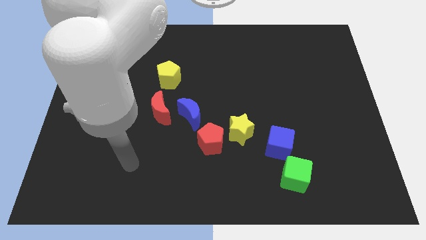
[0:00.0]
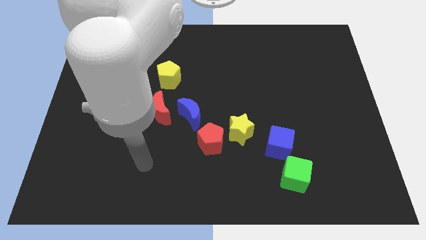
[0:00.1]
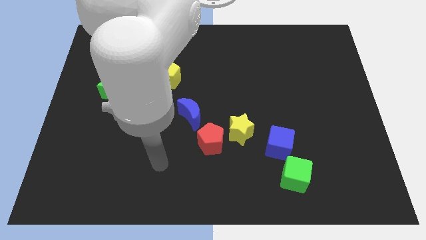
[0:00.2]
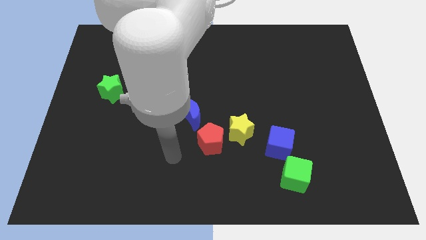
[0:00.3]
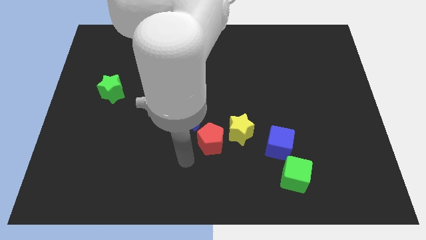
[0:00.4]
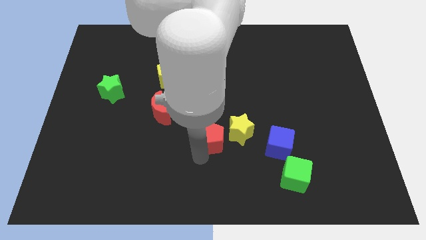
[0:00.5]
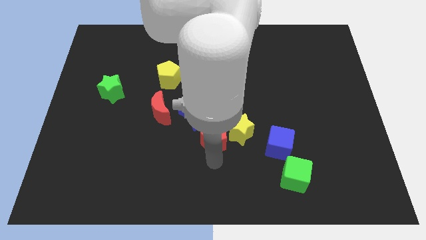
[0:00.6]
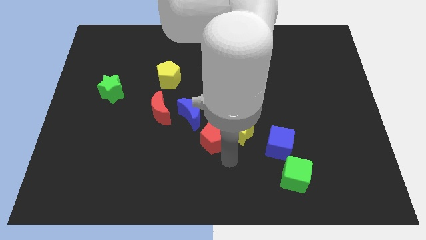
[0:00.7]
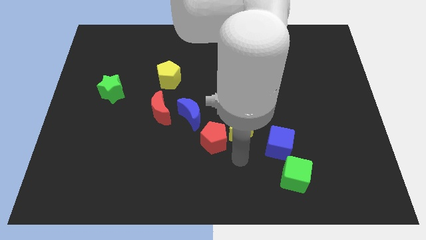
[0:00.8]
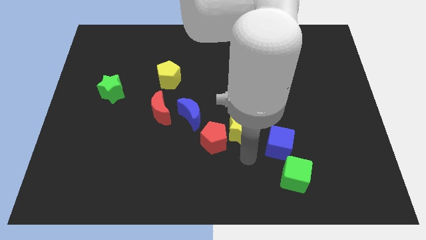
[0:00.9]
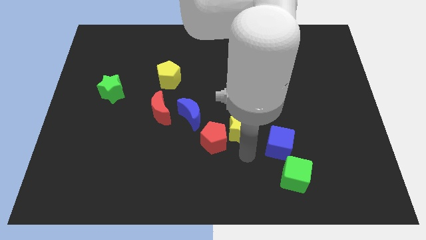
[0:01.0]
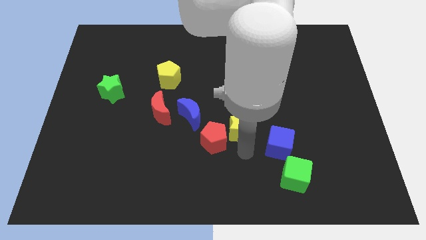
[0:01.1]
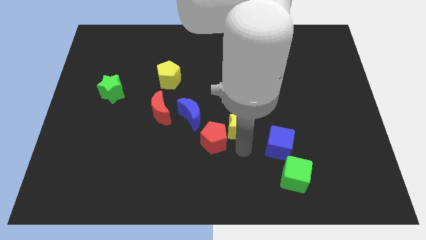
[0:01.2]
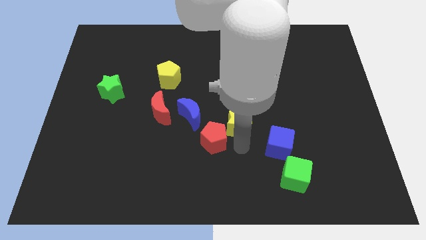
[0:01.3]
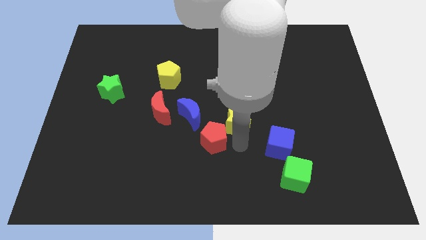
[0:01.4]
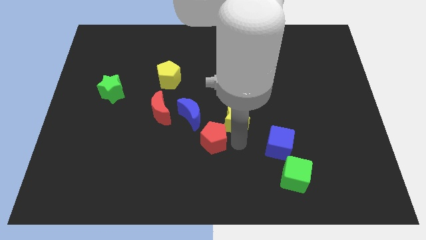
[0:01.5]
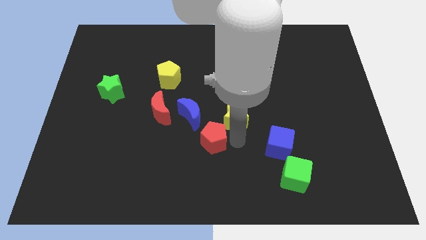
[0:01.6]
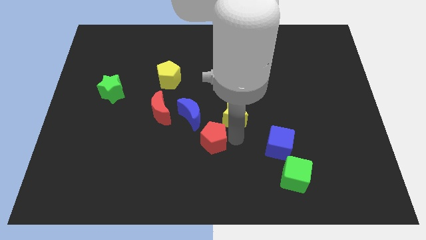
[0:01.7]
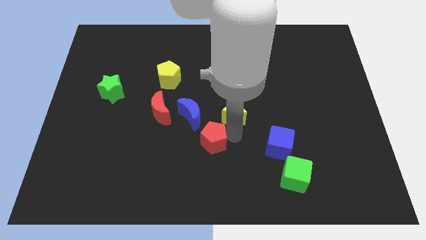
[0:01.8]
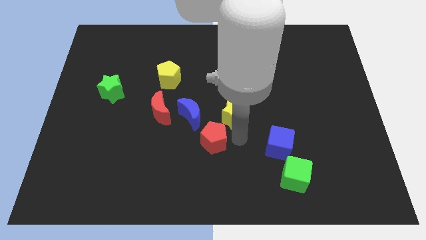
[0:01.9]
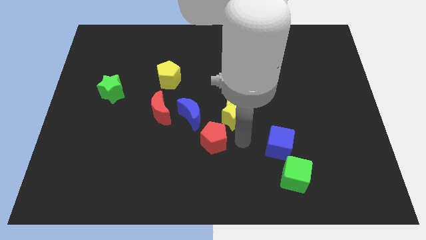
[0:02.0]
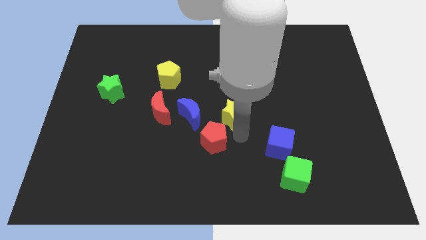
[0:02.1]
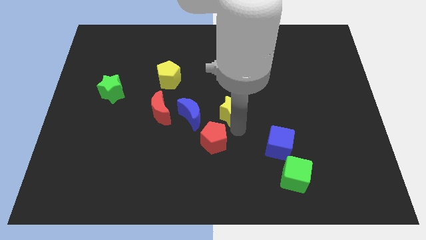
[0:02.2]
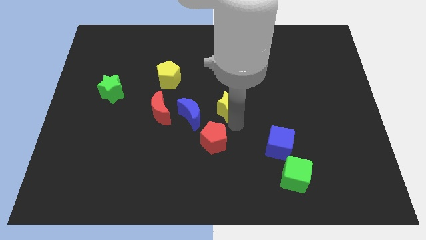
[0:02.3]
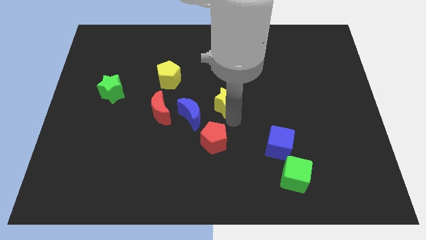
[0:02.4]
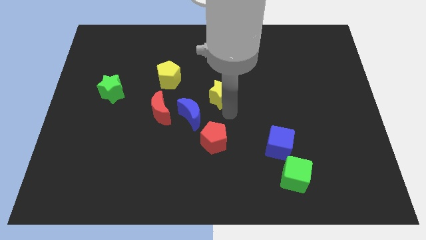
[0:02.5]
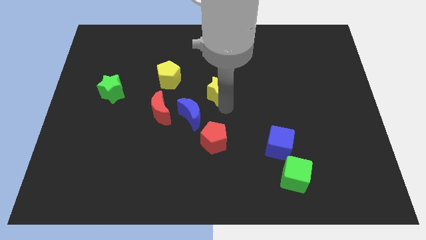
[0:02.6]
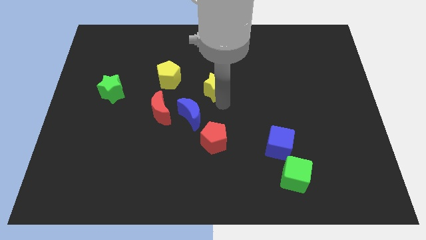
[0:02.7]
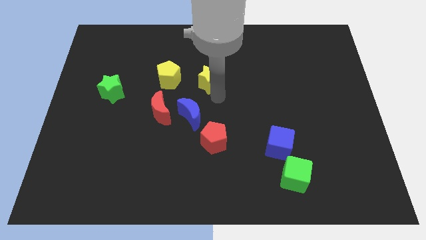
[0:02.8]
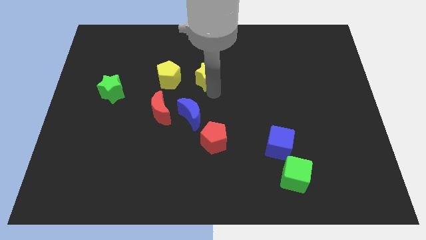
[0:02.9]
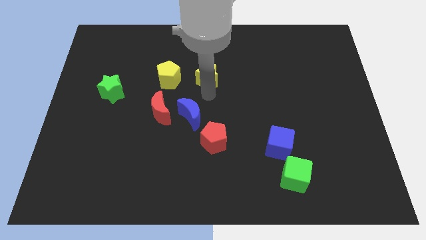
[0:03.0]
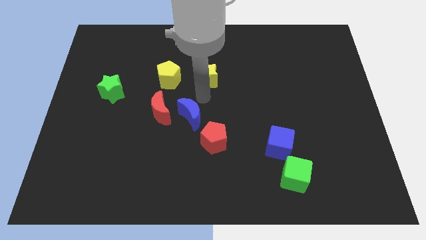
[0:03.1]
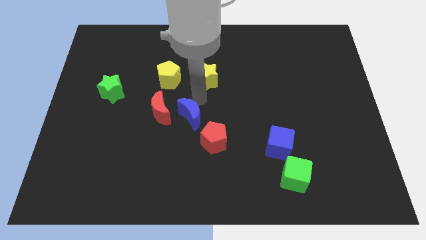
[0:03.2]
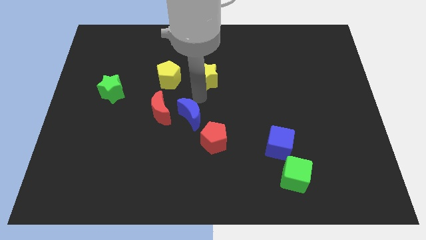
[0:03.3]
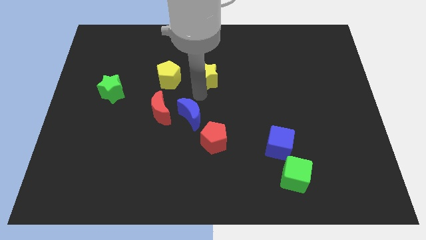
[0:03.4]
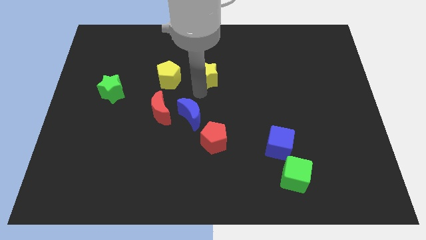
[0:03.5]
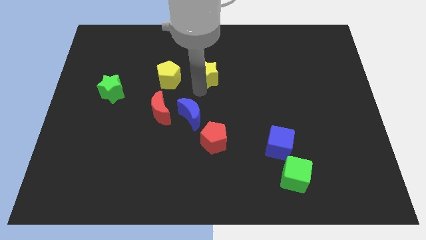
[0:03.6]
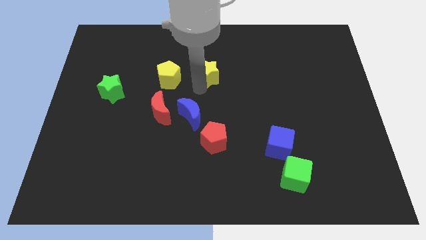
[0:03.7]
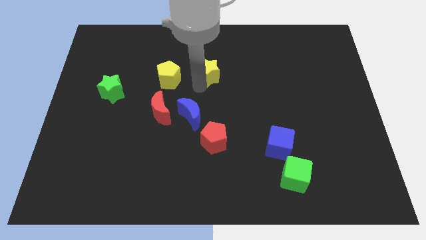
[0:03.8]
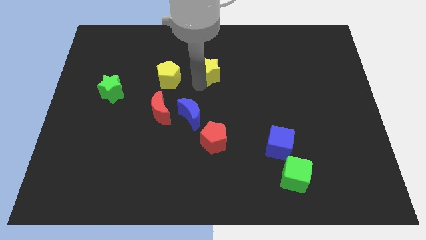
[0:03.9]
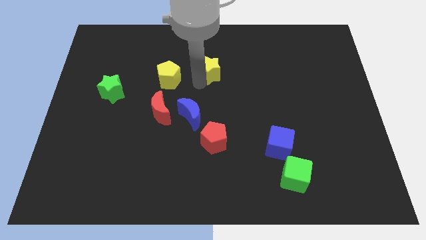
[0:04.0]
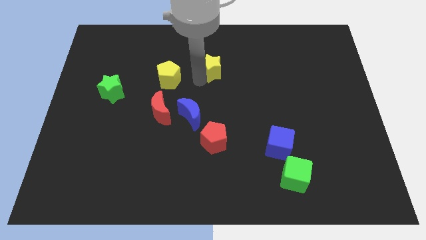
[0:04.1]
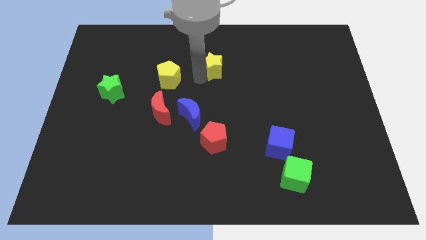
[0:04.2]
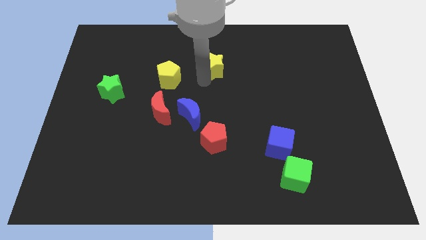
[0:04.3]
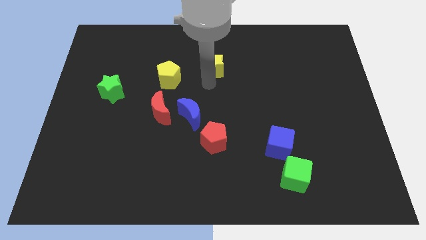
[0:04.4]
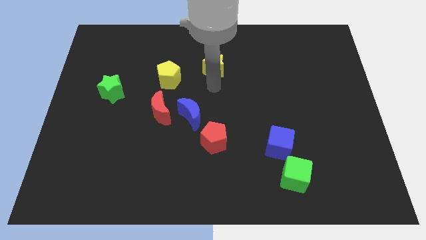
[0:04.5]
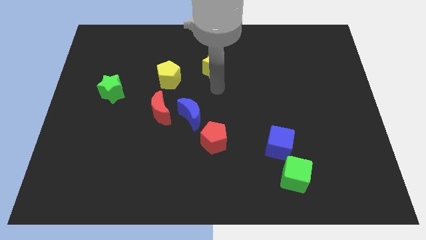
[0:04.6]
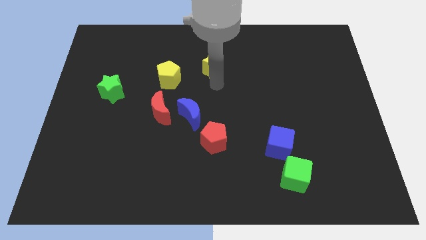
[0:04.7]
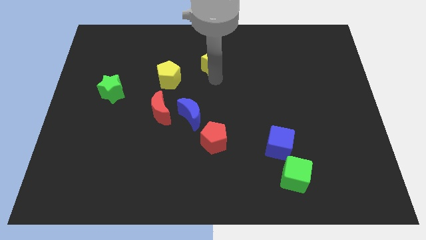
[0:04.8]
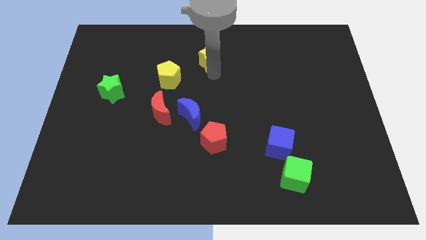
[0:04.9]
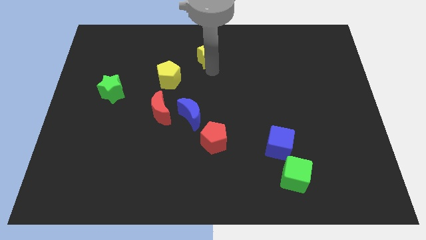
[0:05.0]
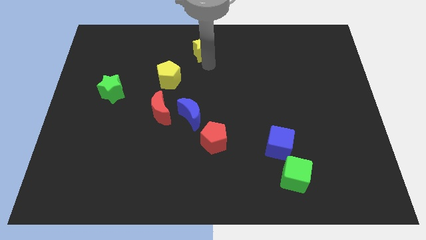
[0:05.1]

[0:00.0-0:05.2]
slide the yellow star to the towards your base

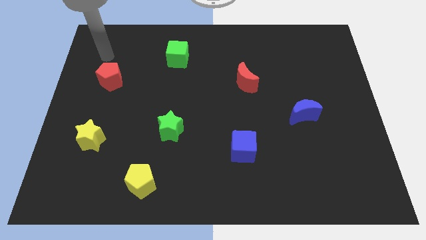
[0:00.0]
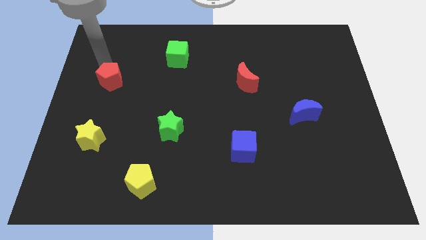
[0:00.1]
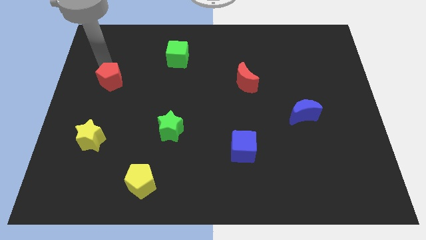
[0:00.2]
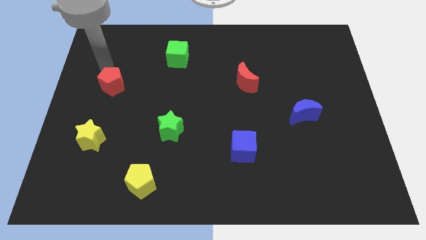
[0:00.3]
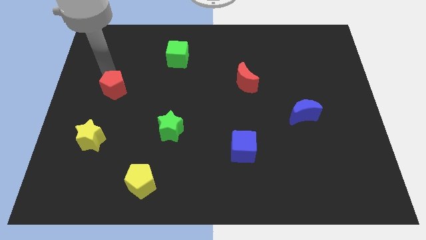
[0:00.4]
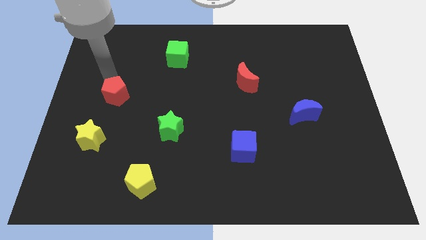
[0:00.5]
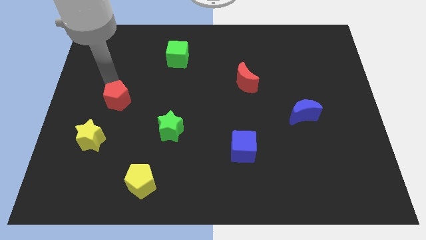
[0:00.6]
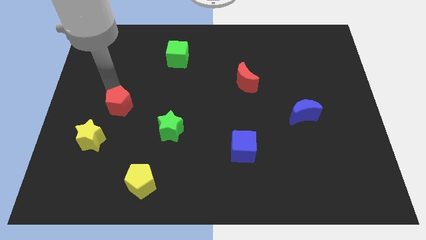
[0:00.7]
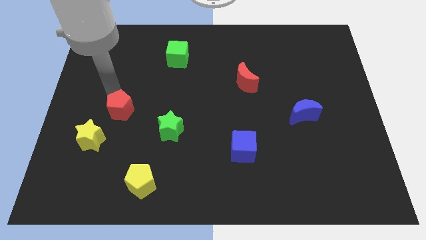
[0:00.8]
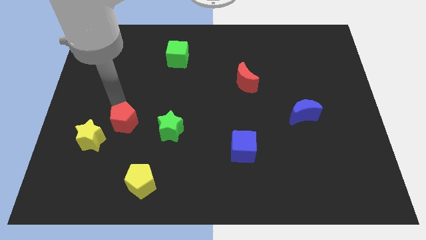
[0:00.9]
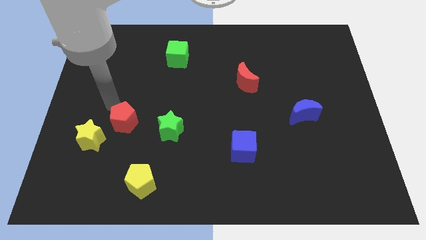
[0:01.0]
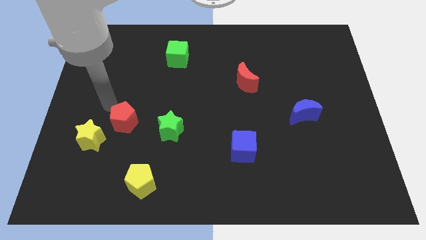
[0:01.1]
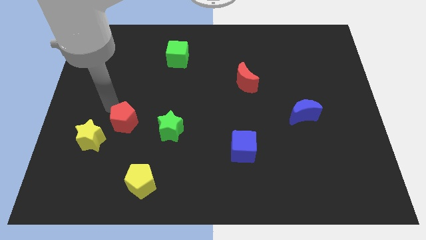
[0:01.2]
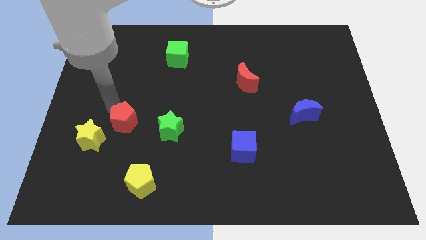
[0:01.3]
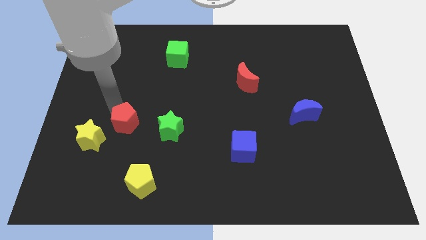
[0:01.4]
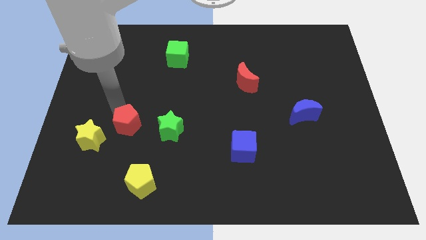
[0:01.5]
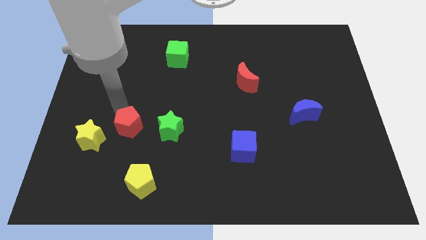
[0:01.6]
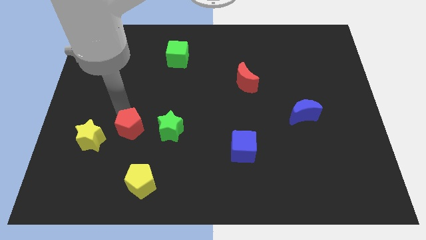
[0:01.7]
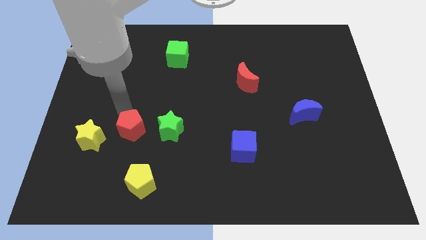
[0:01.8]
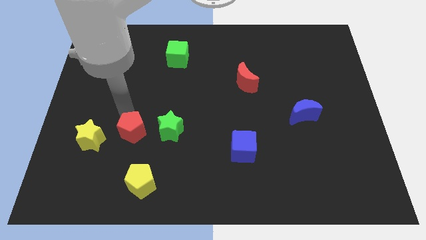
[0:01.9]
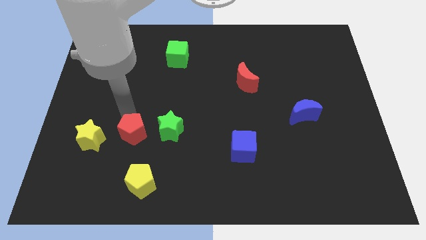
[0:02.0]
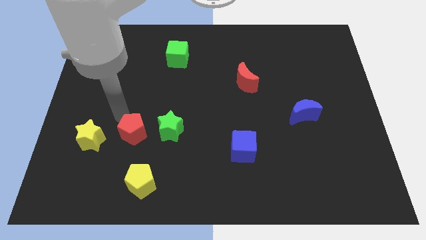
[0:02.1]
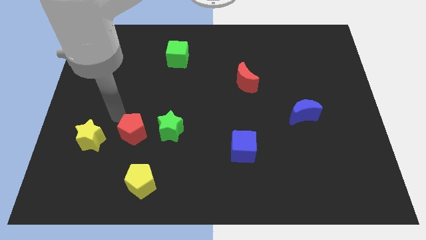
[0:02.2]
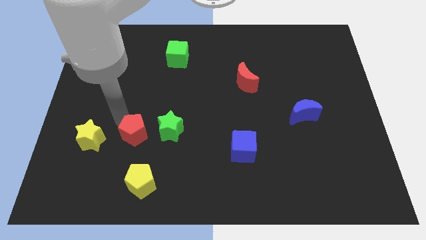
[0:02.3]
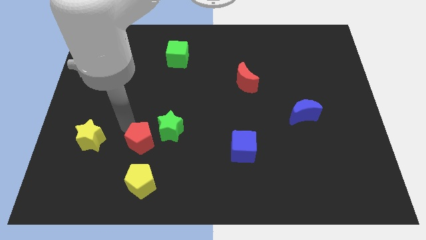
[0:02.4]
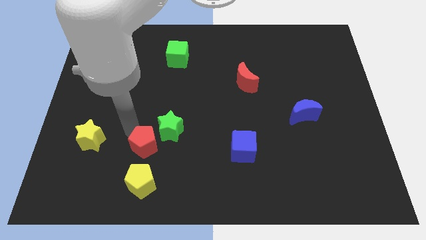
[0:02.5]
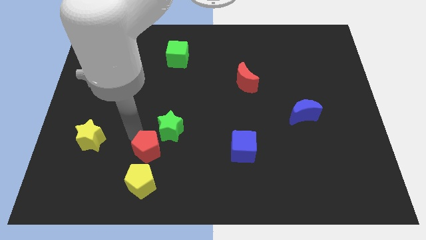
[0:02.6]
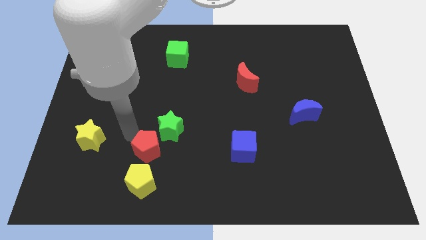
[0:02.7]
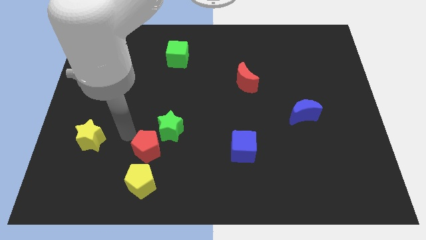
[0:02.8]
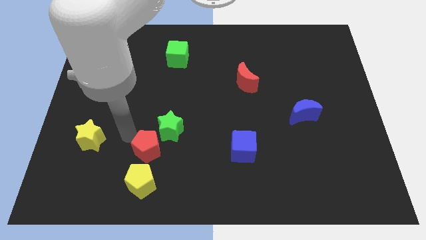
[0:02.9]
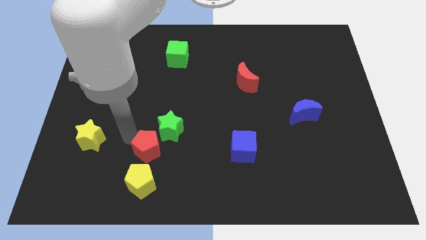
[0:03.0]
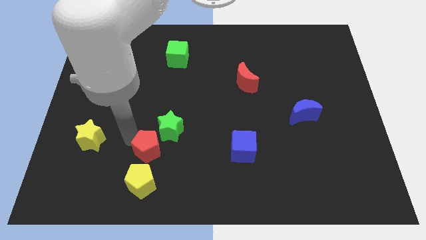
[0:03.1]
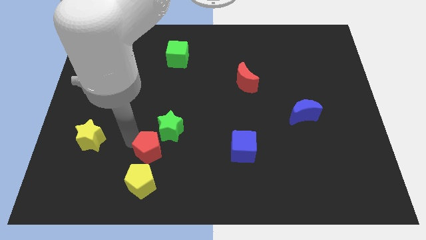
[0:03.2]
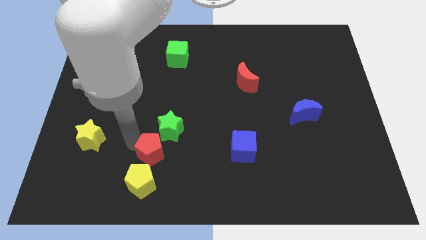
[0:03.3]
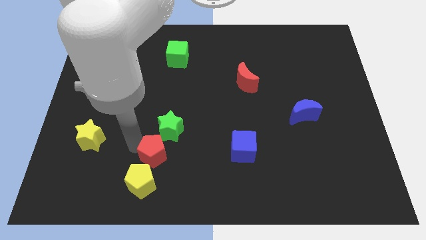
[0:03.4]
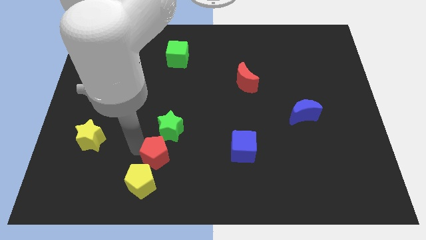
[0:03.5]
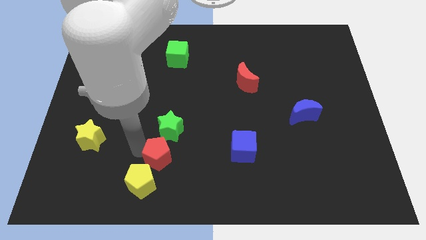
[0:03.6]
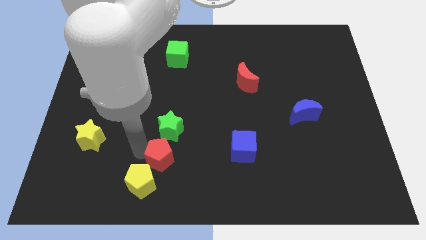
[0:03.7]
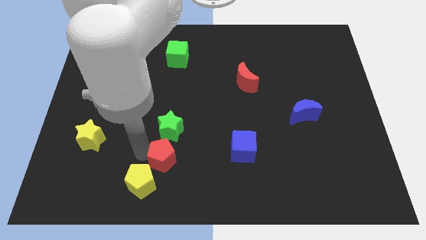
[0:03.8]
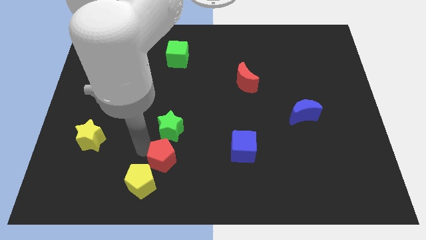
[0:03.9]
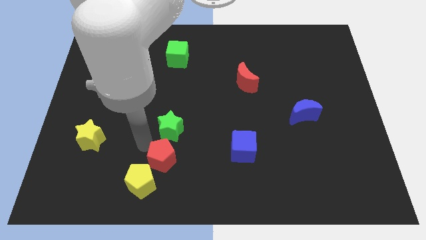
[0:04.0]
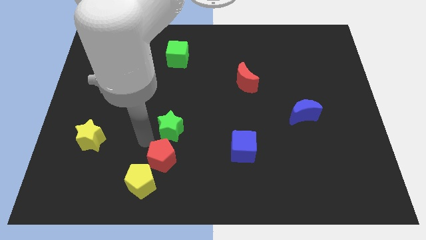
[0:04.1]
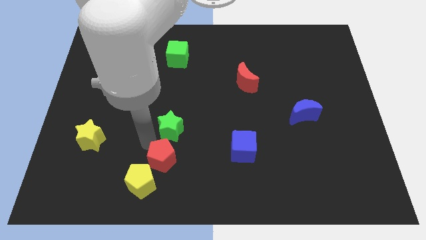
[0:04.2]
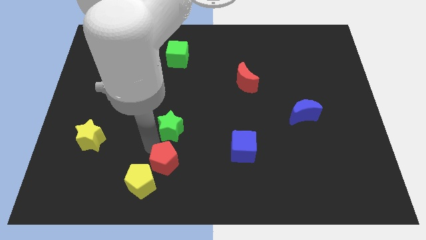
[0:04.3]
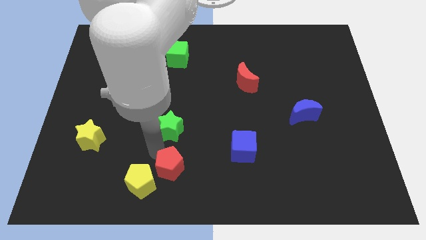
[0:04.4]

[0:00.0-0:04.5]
move the red pentagon to the bottom side
